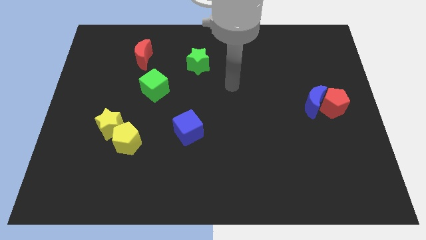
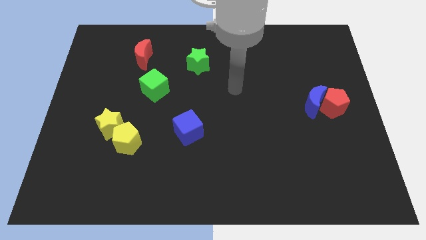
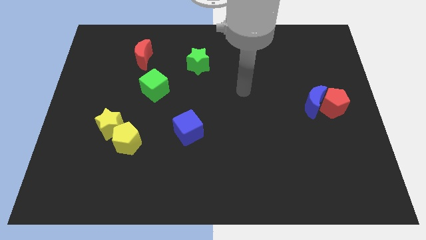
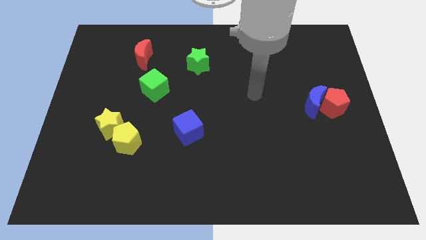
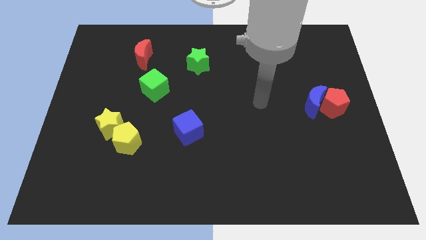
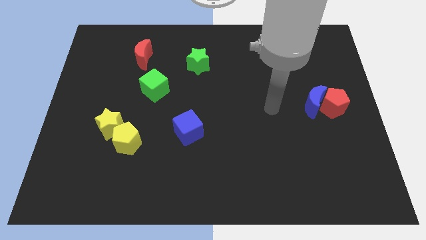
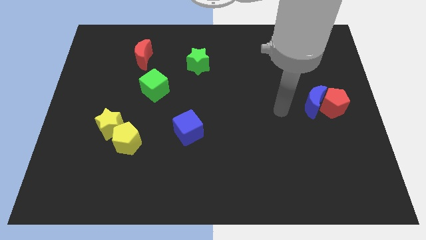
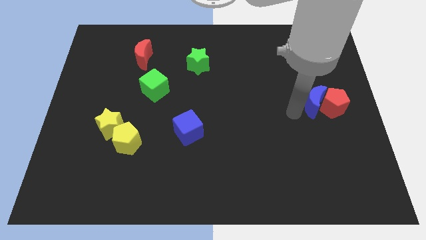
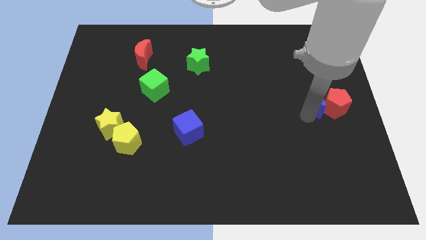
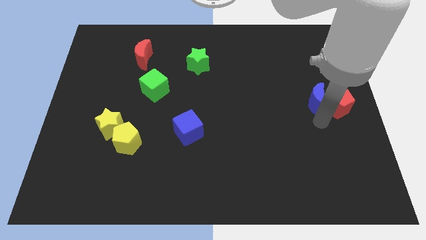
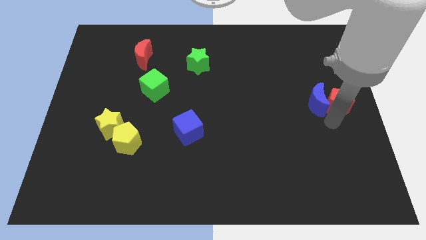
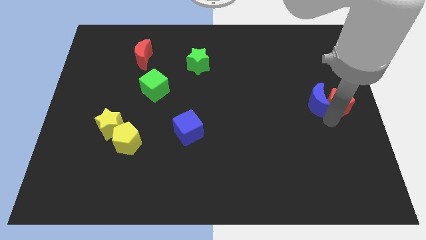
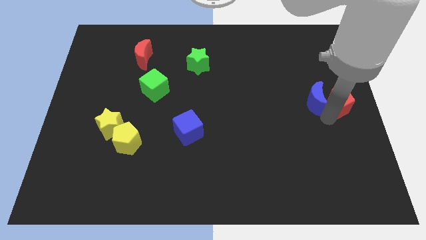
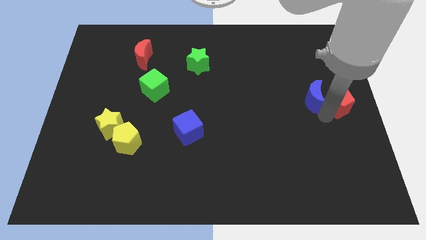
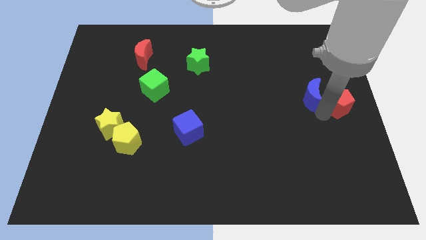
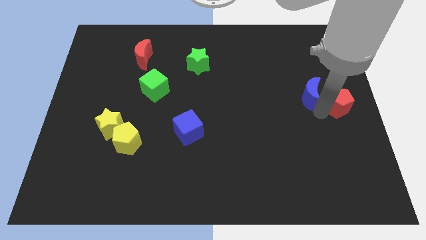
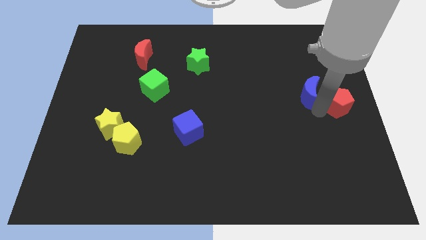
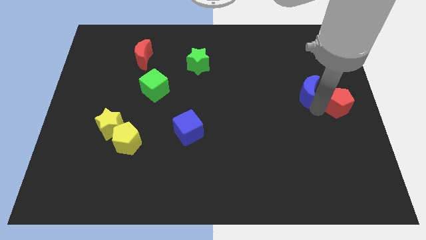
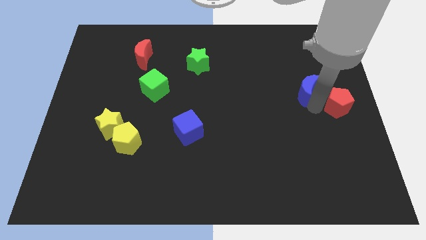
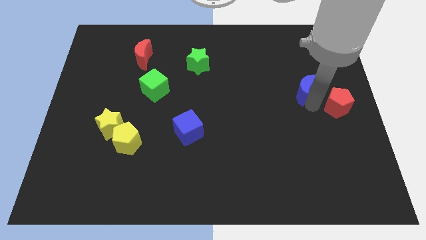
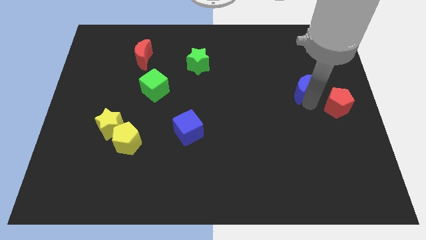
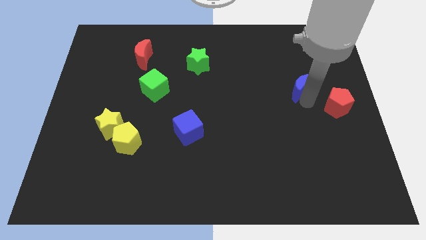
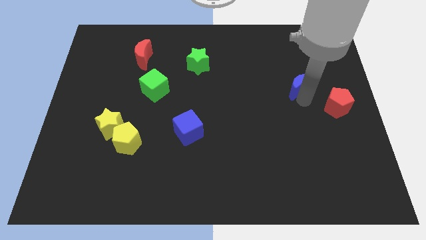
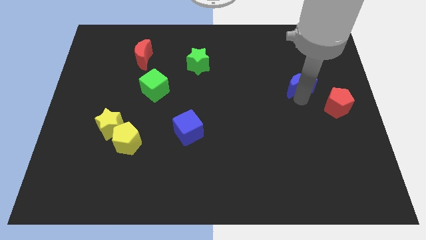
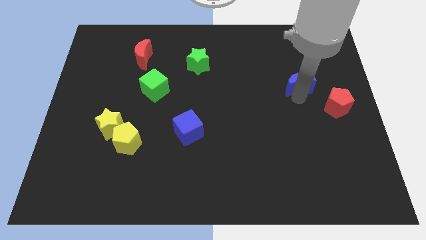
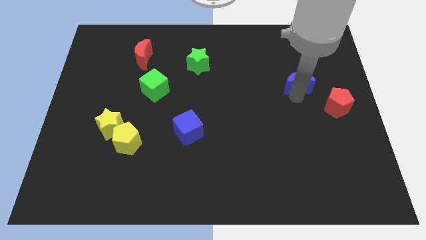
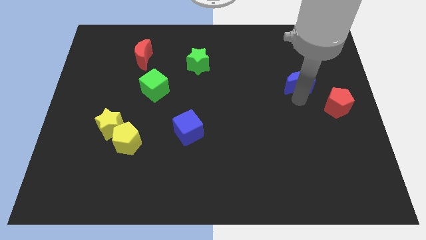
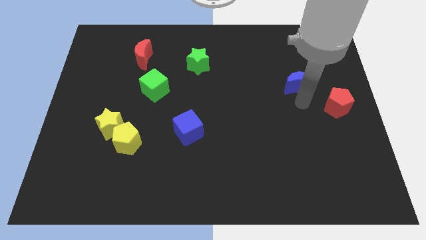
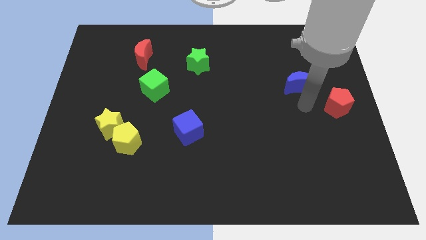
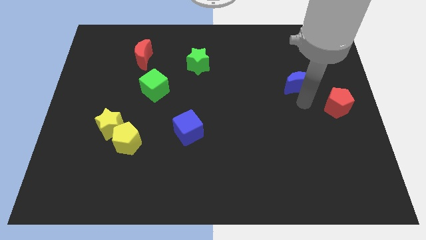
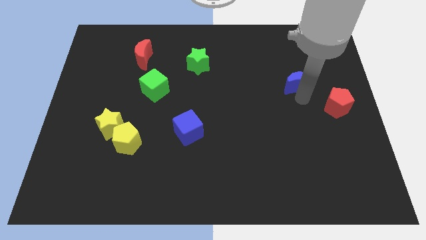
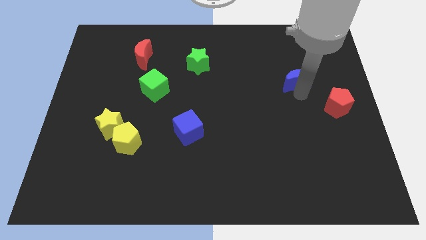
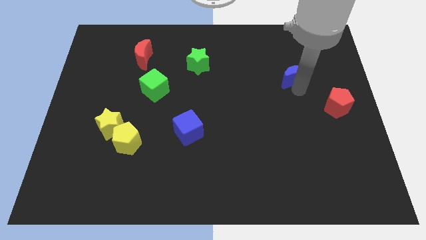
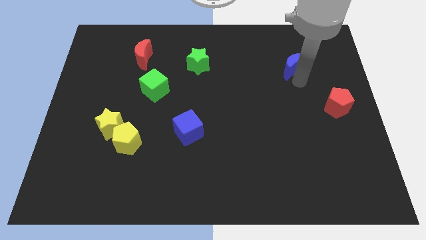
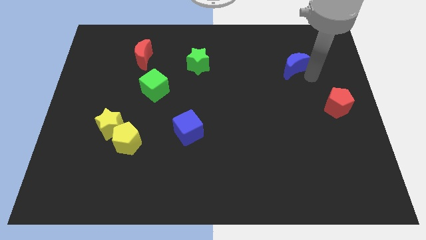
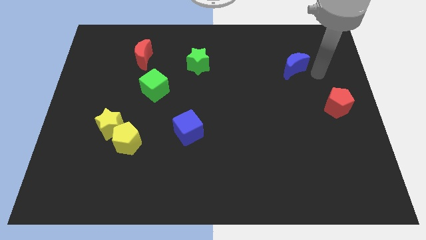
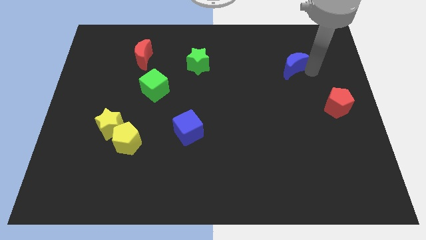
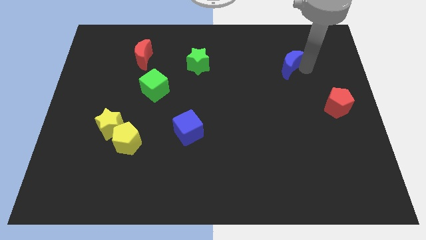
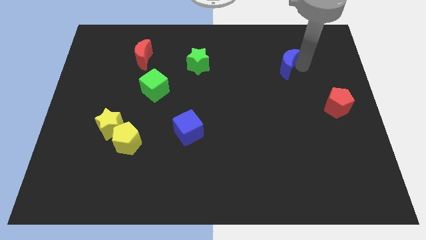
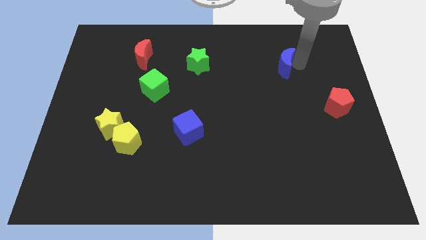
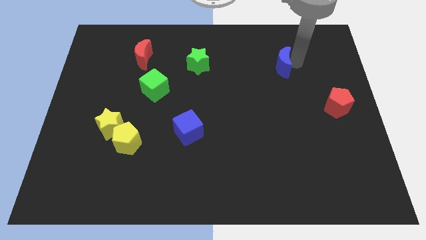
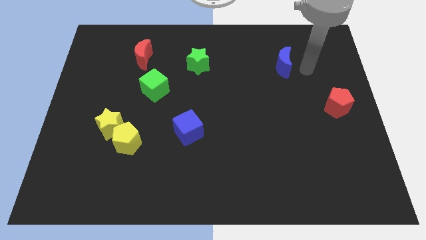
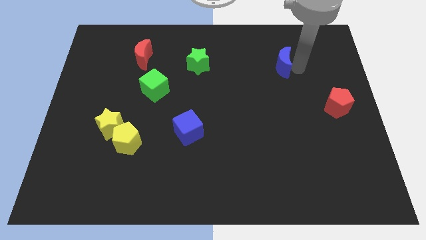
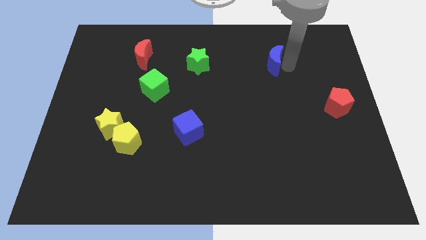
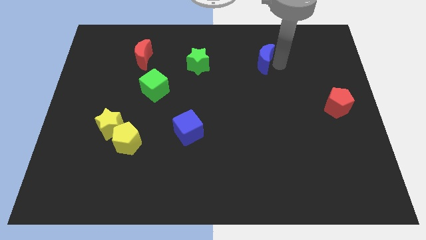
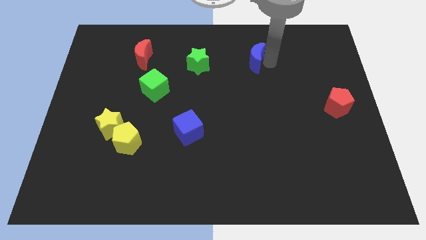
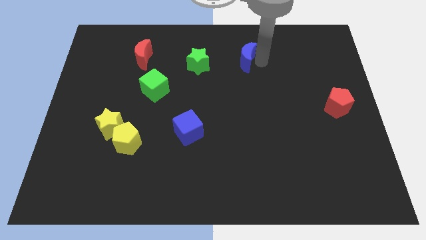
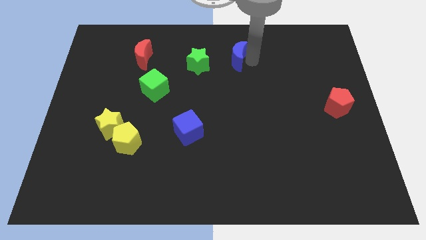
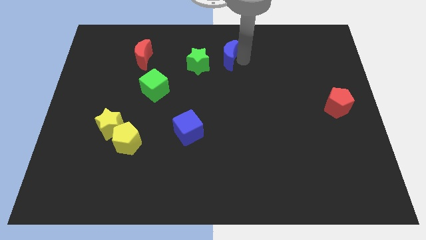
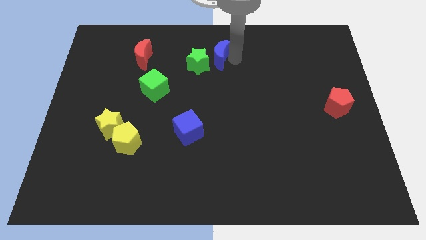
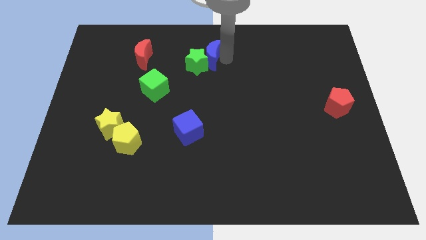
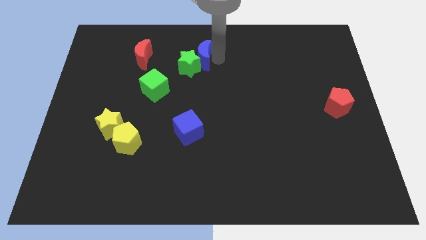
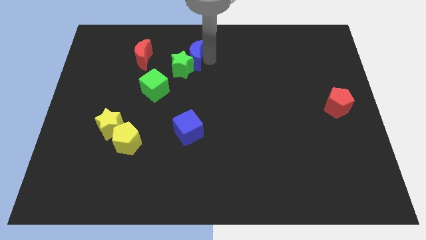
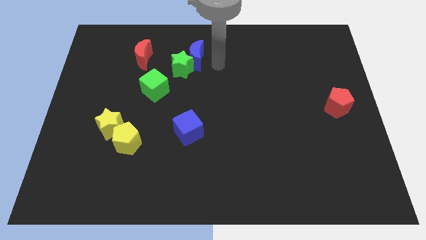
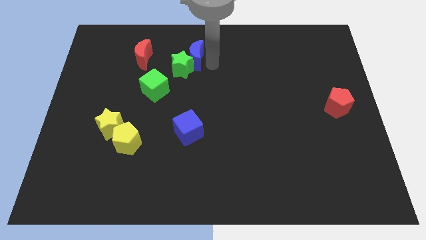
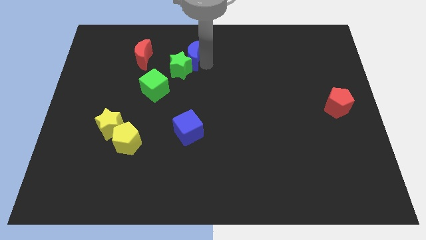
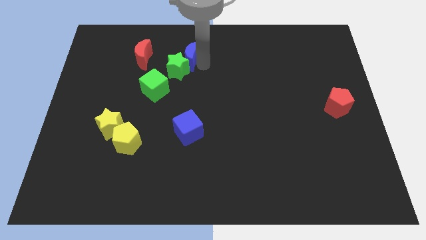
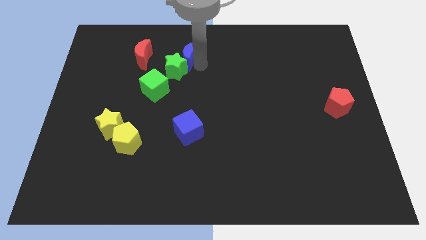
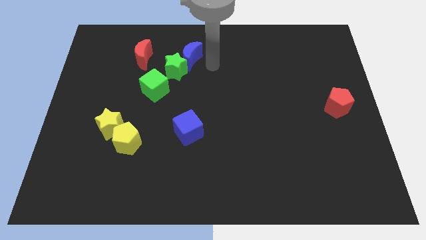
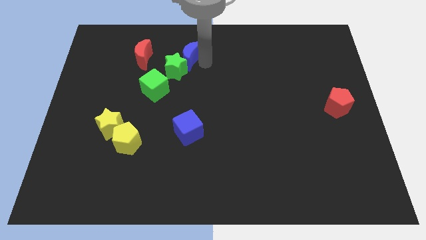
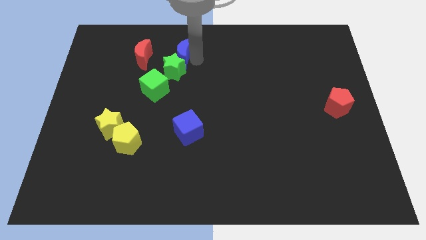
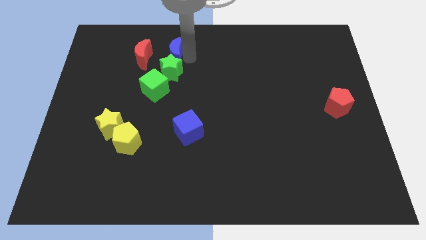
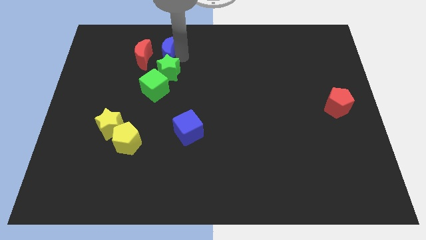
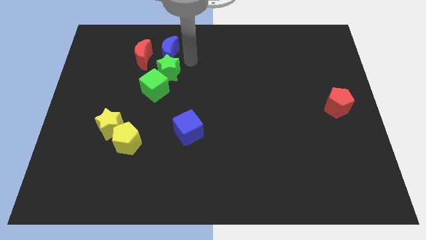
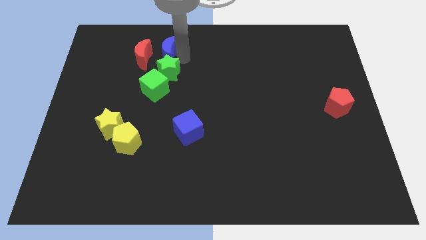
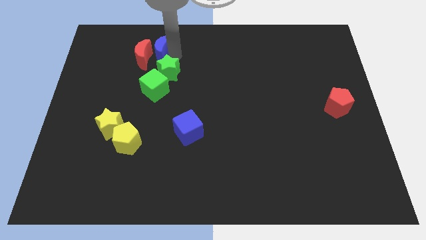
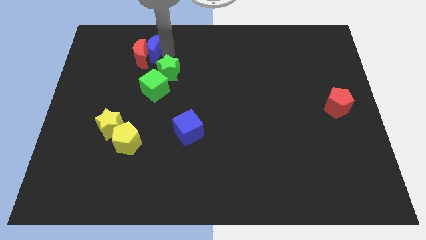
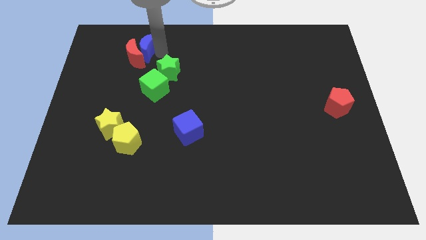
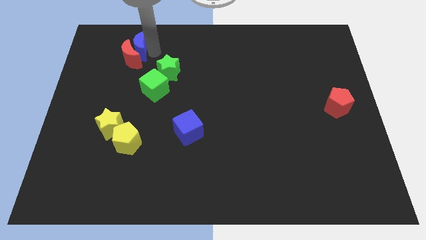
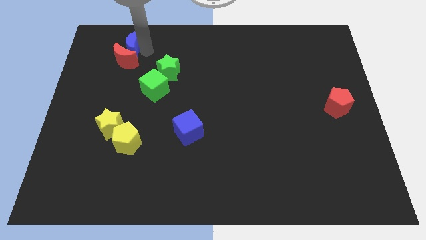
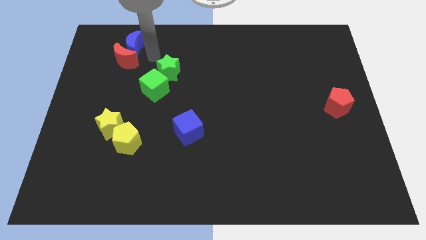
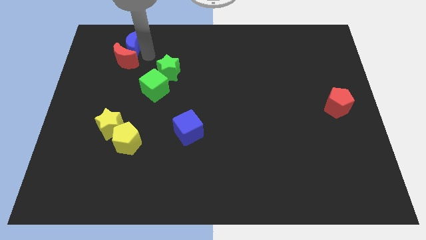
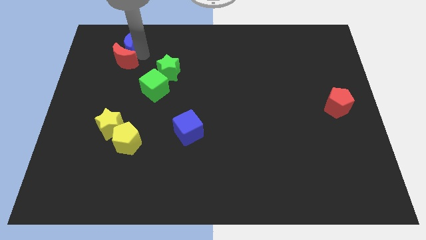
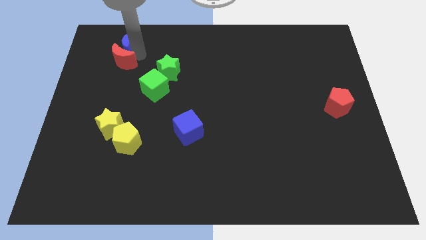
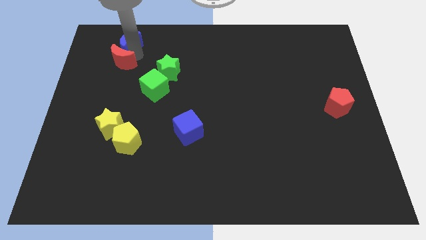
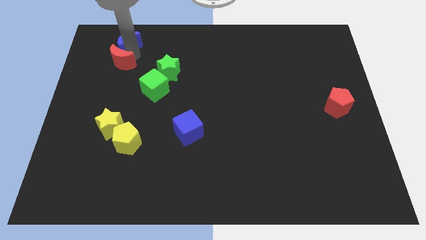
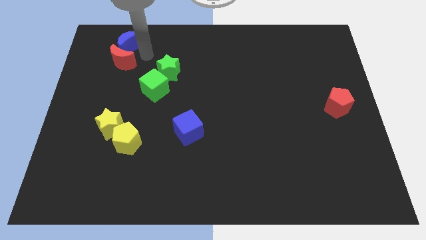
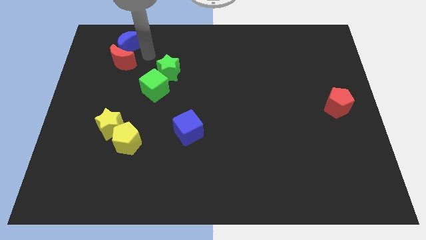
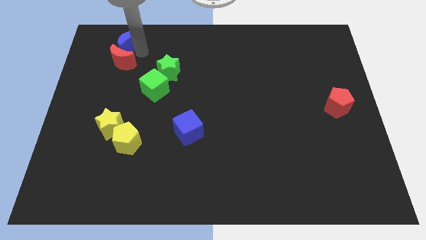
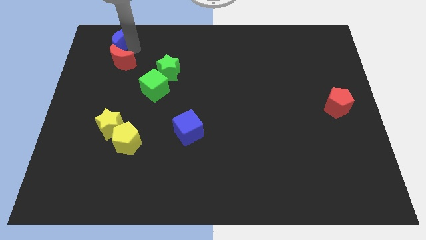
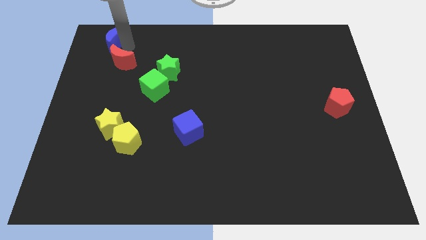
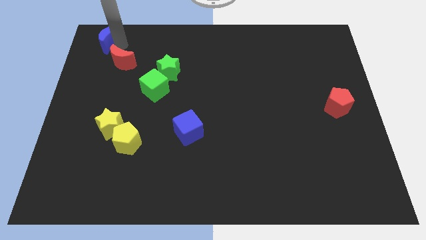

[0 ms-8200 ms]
push the blue moon to the top left of the board
